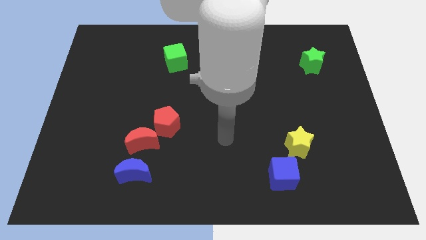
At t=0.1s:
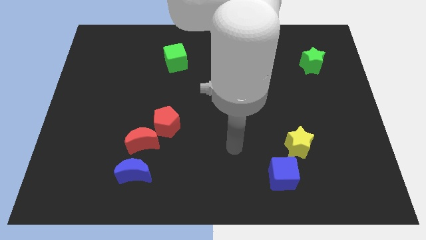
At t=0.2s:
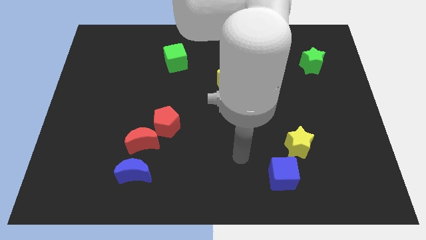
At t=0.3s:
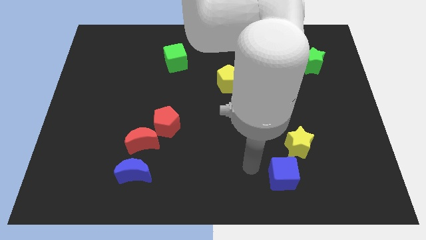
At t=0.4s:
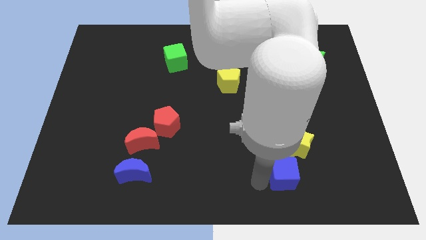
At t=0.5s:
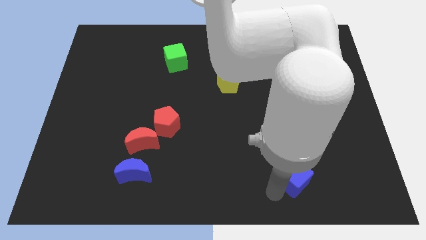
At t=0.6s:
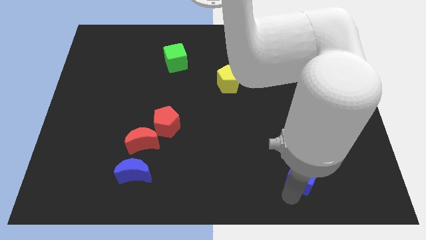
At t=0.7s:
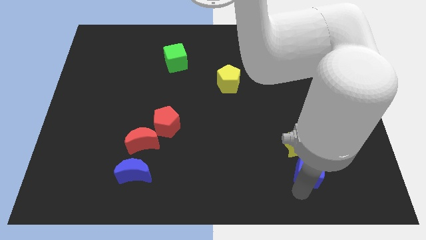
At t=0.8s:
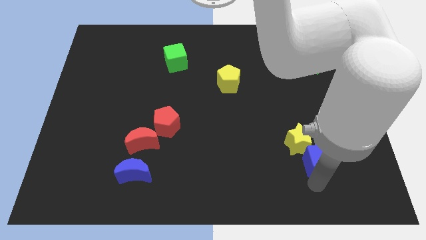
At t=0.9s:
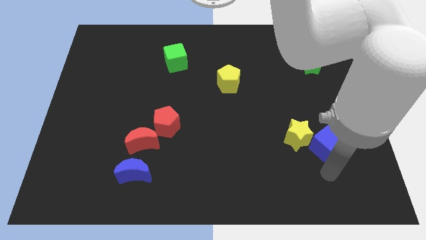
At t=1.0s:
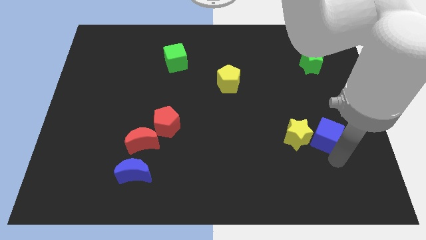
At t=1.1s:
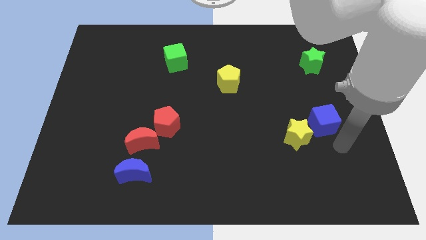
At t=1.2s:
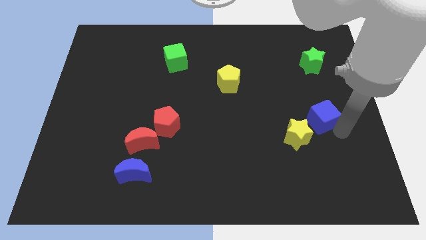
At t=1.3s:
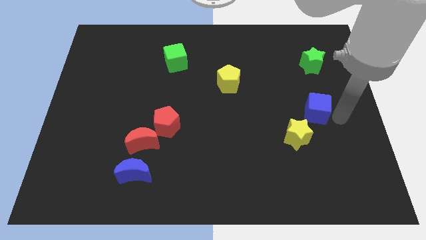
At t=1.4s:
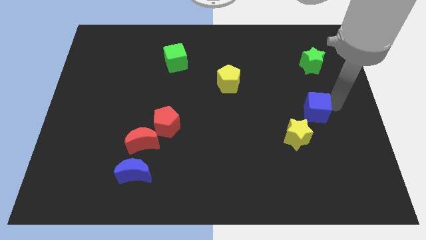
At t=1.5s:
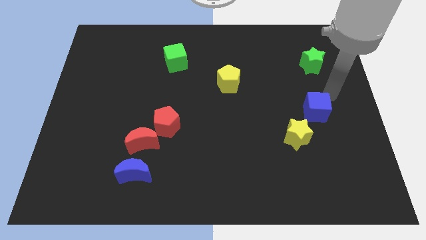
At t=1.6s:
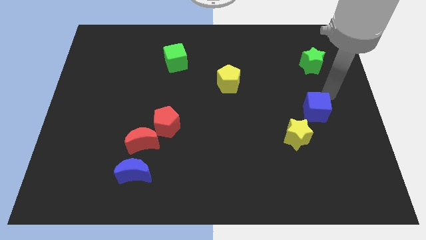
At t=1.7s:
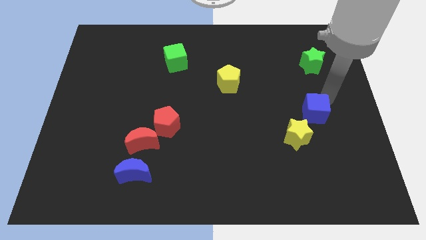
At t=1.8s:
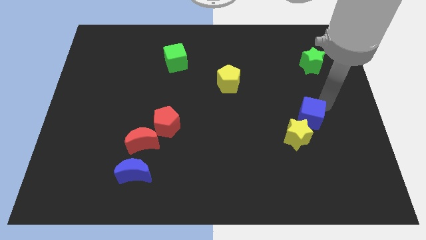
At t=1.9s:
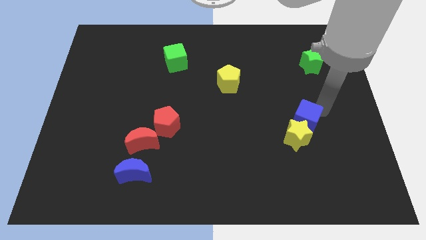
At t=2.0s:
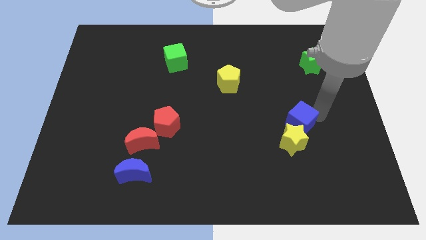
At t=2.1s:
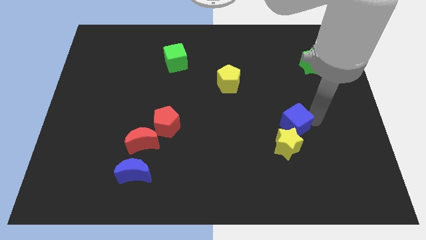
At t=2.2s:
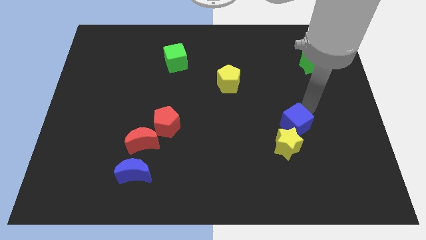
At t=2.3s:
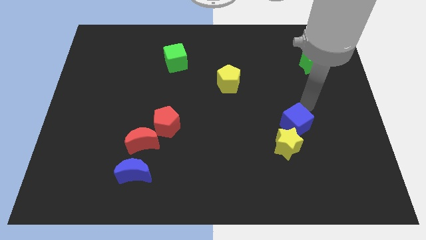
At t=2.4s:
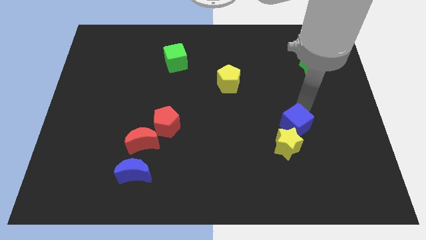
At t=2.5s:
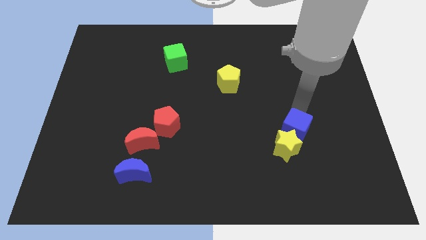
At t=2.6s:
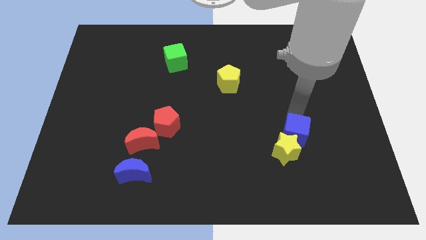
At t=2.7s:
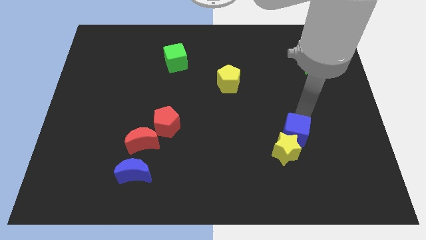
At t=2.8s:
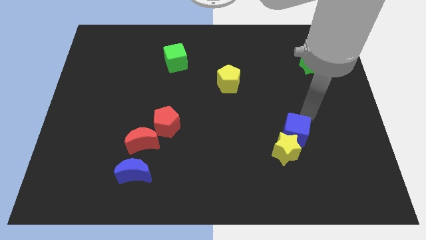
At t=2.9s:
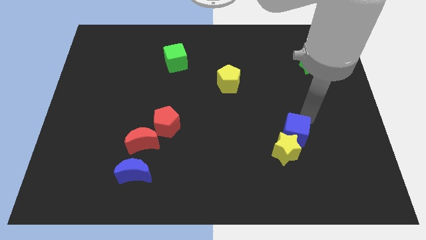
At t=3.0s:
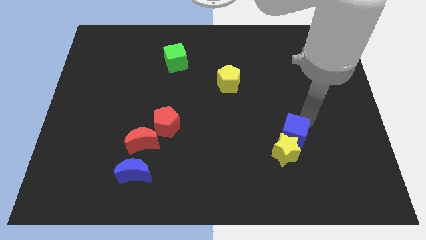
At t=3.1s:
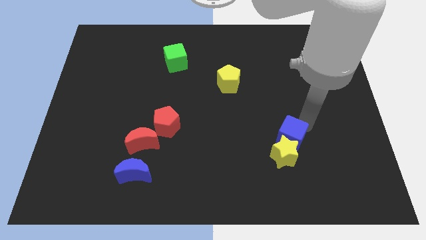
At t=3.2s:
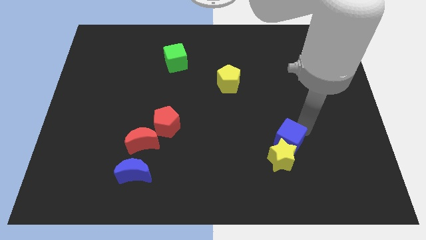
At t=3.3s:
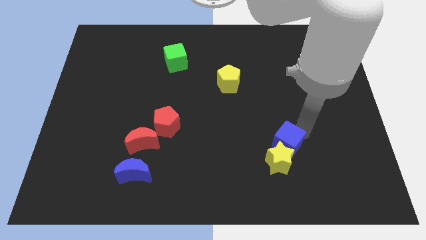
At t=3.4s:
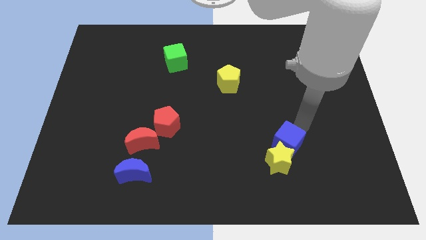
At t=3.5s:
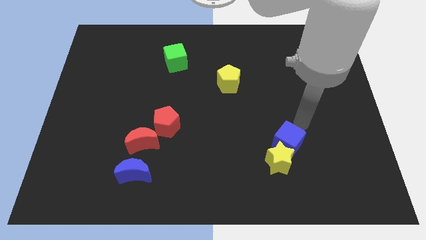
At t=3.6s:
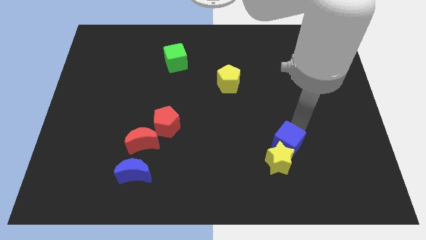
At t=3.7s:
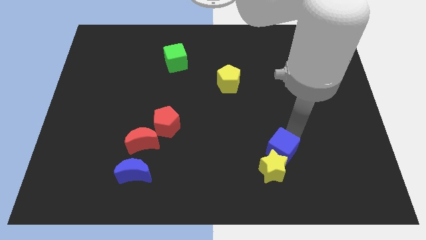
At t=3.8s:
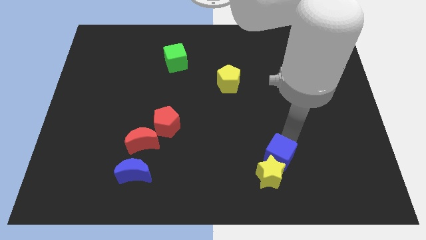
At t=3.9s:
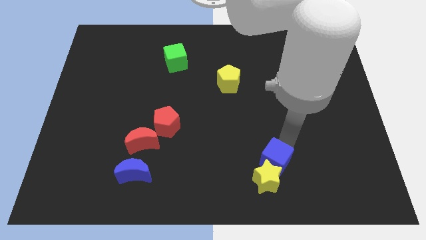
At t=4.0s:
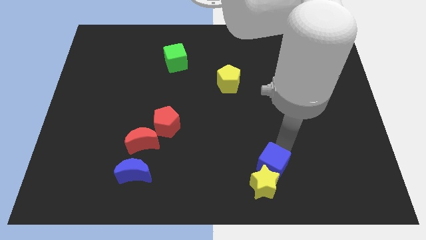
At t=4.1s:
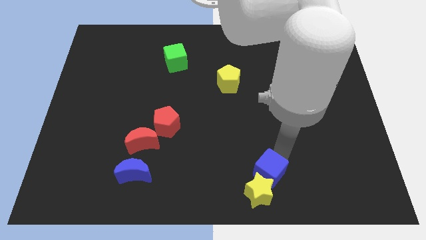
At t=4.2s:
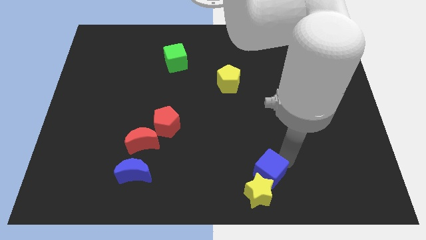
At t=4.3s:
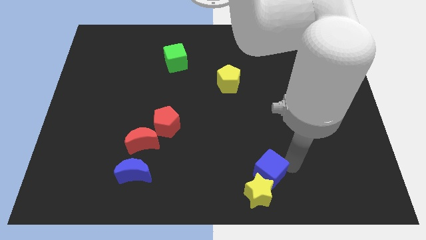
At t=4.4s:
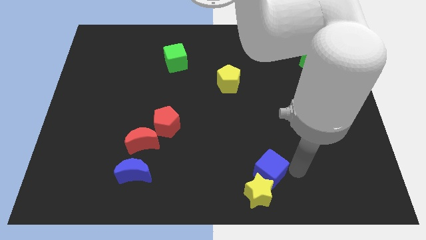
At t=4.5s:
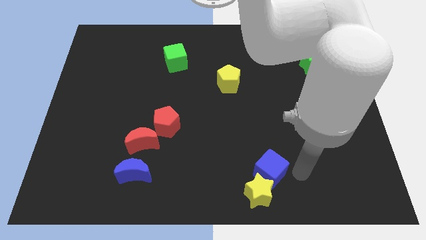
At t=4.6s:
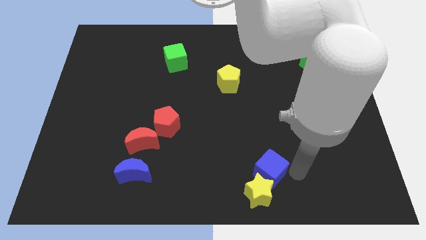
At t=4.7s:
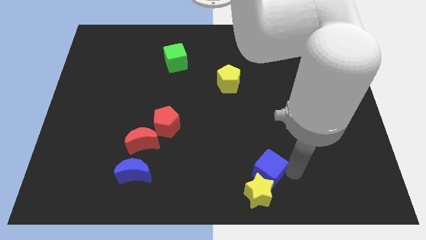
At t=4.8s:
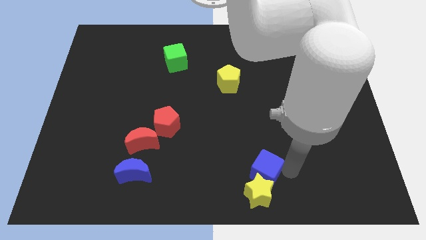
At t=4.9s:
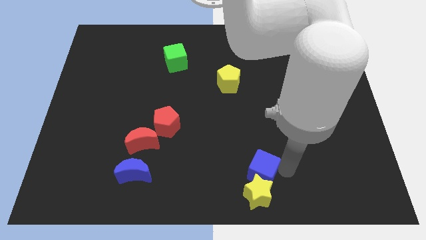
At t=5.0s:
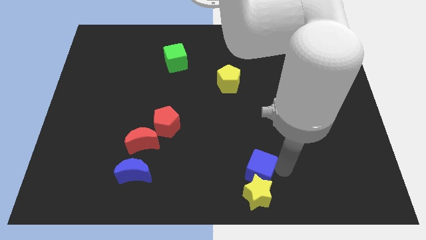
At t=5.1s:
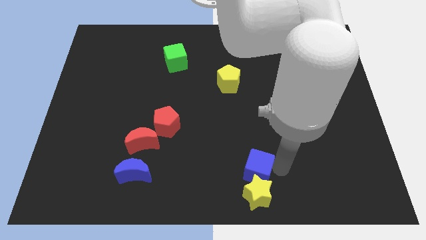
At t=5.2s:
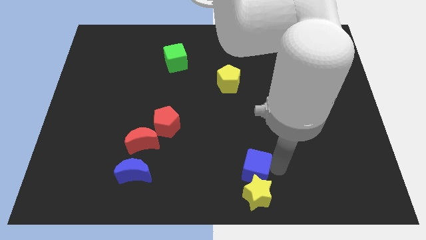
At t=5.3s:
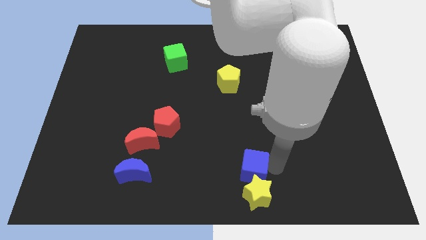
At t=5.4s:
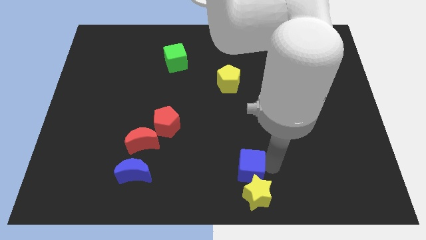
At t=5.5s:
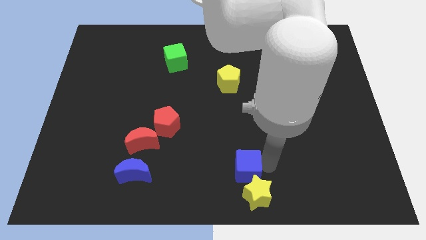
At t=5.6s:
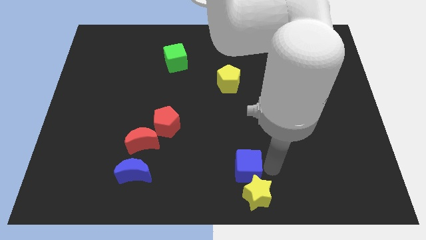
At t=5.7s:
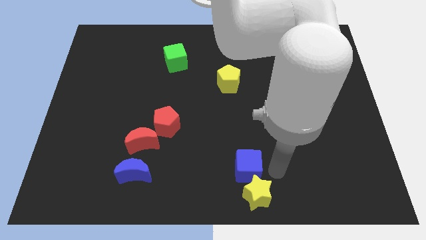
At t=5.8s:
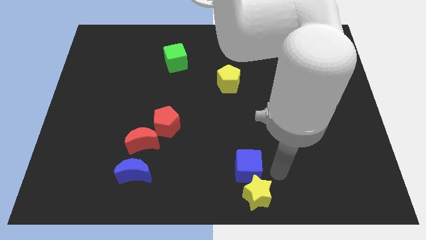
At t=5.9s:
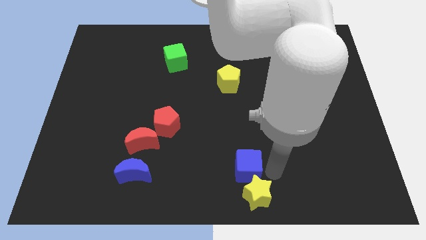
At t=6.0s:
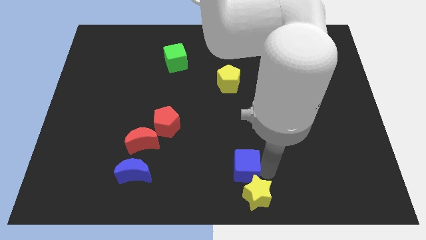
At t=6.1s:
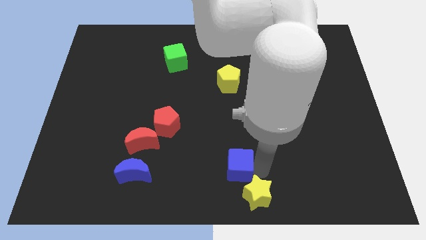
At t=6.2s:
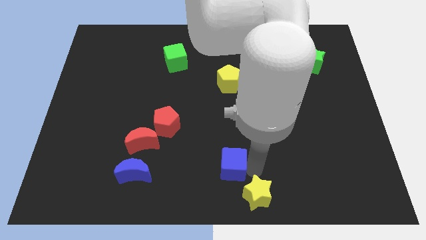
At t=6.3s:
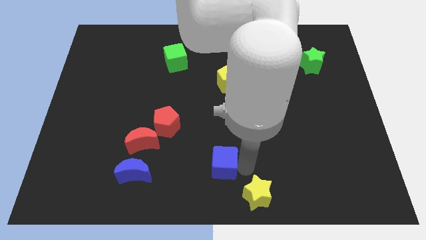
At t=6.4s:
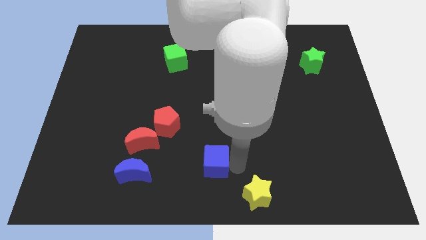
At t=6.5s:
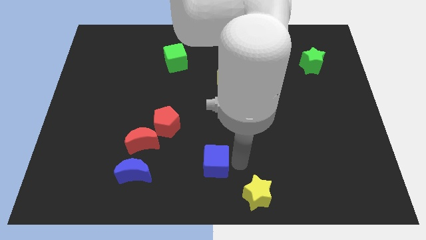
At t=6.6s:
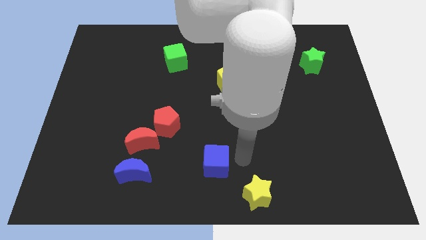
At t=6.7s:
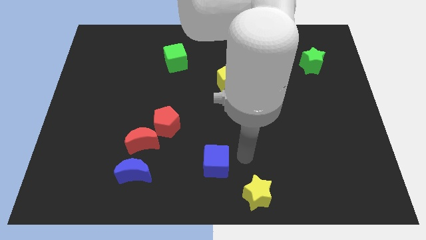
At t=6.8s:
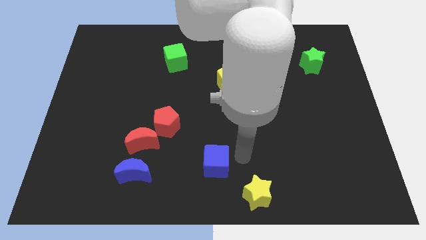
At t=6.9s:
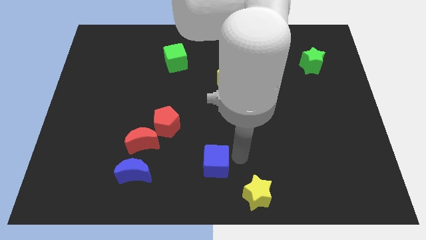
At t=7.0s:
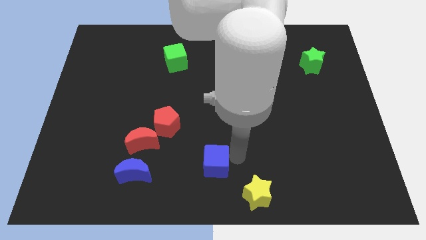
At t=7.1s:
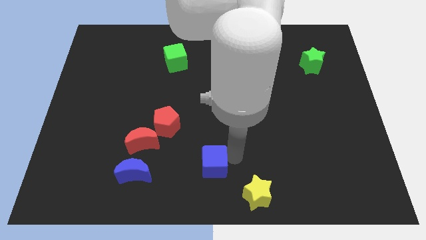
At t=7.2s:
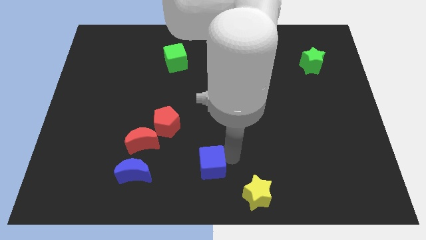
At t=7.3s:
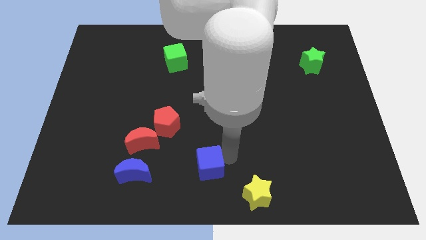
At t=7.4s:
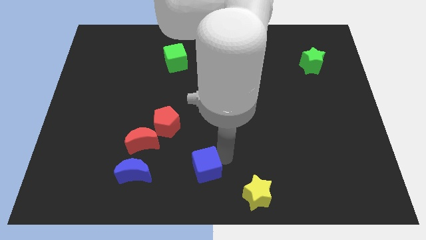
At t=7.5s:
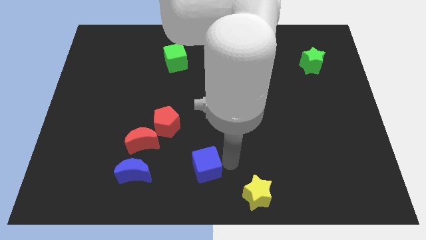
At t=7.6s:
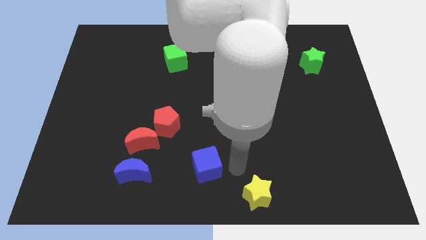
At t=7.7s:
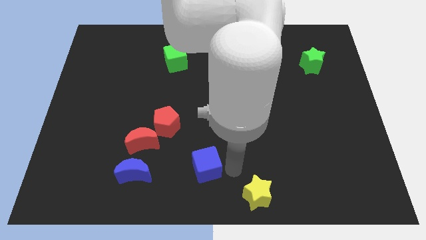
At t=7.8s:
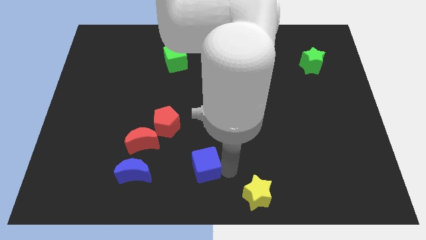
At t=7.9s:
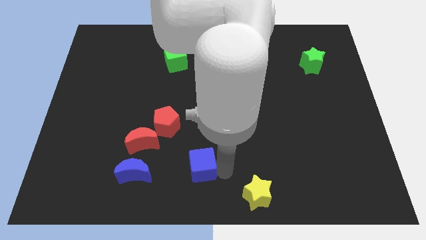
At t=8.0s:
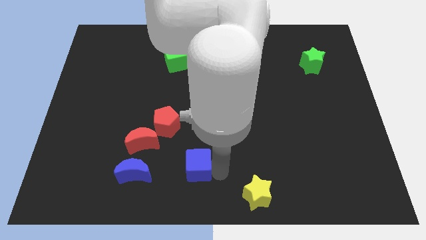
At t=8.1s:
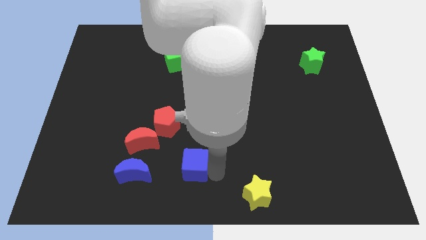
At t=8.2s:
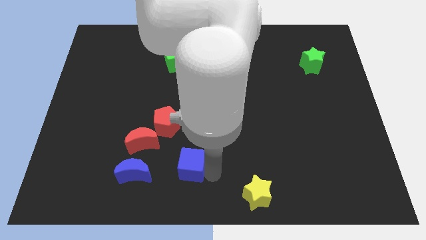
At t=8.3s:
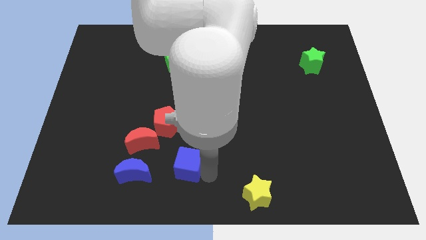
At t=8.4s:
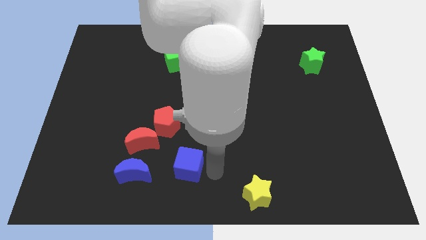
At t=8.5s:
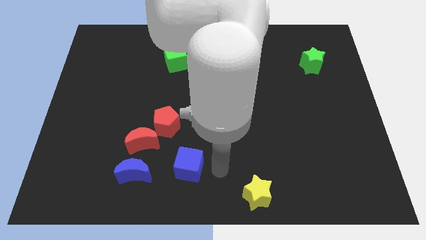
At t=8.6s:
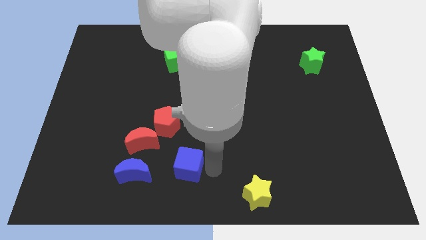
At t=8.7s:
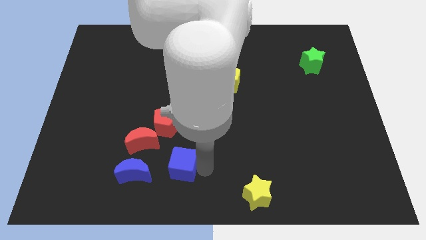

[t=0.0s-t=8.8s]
put the blue cube to the bottom of the red pentagon
